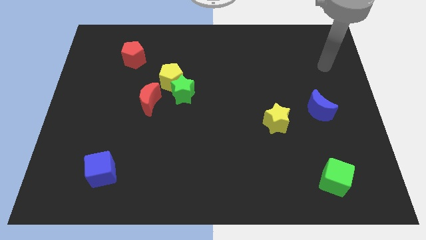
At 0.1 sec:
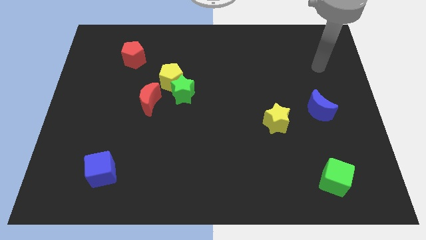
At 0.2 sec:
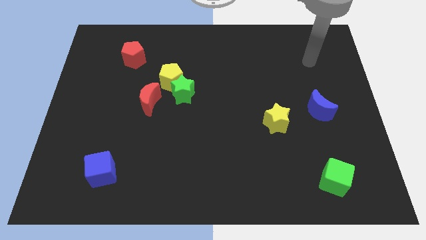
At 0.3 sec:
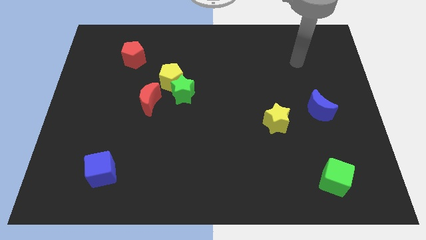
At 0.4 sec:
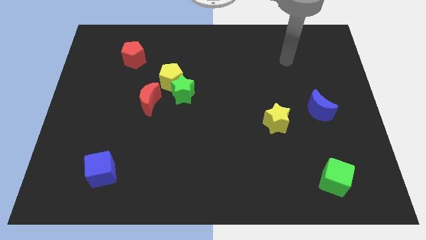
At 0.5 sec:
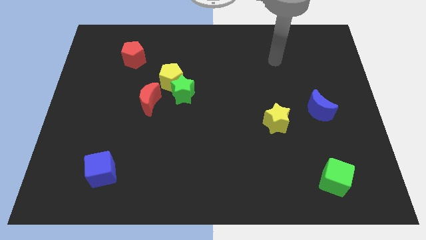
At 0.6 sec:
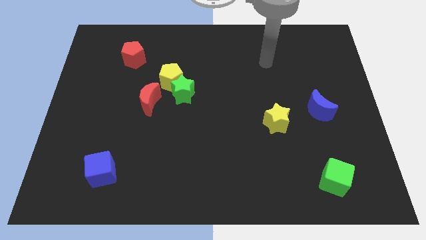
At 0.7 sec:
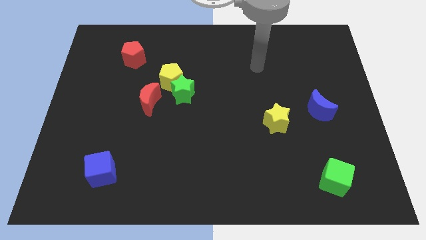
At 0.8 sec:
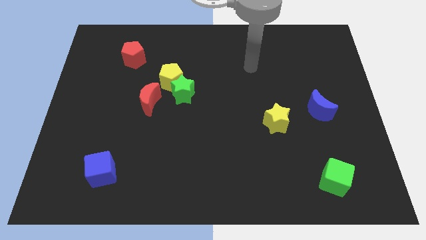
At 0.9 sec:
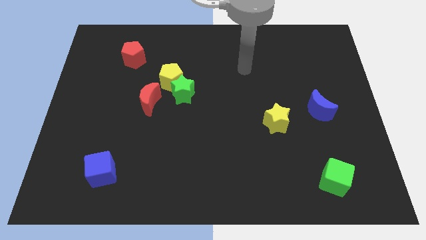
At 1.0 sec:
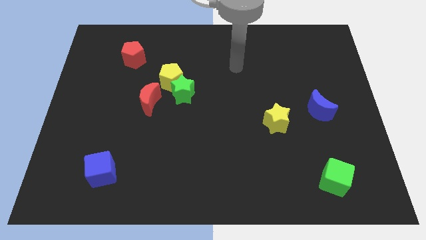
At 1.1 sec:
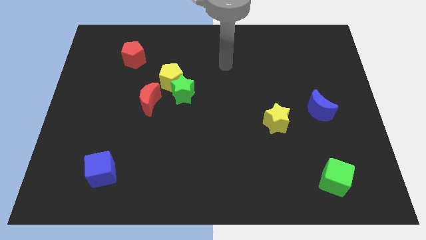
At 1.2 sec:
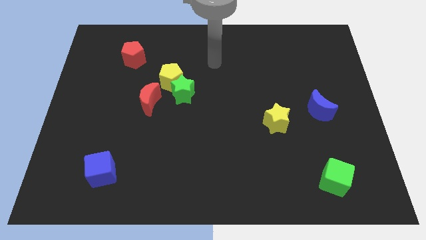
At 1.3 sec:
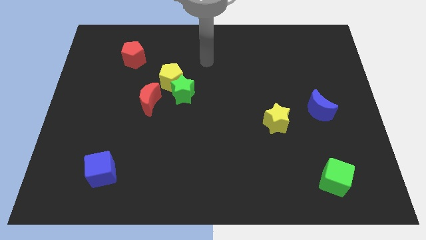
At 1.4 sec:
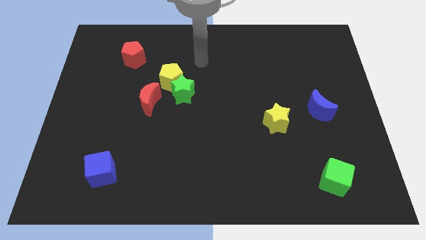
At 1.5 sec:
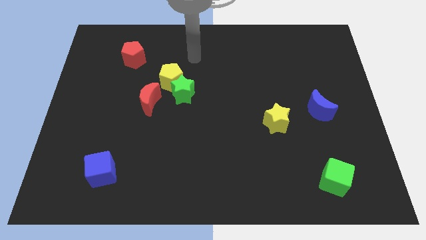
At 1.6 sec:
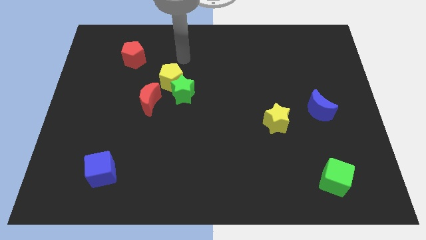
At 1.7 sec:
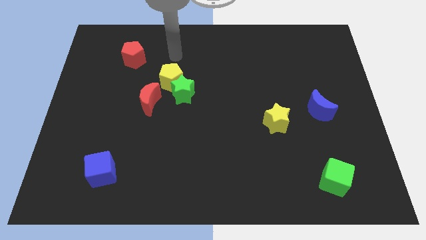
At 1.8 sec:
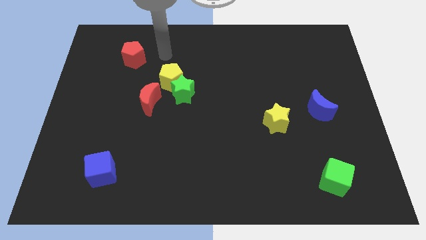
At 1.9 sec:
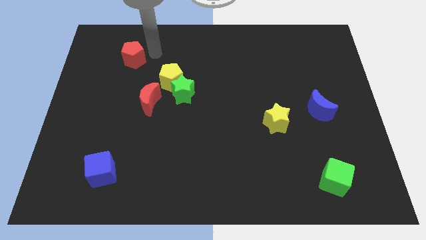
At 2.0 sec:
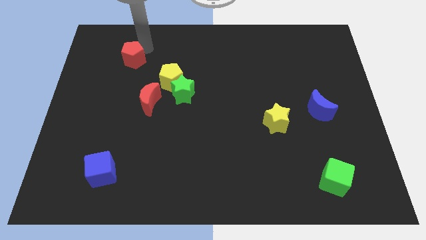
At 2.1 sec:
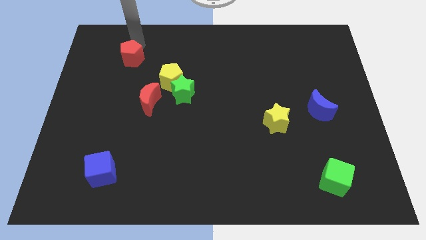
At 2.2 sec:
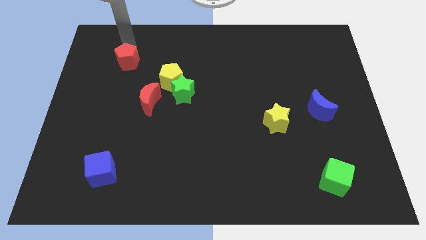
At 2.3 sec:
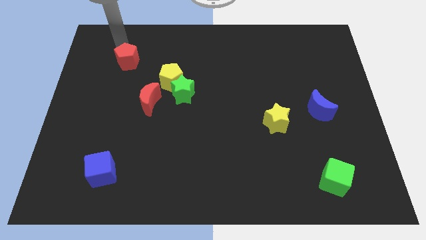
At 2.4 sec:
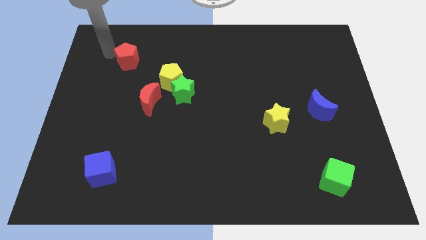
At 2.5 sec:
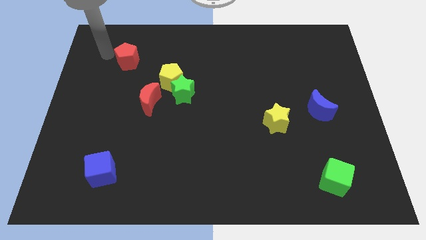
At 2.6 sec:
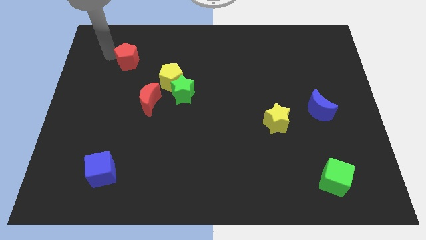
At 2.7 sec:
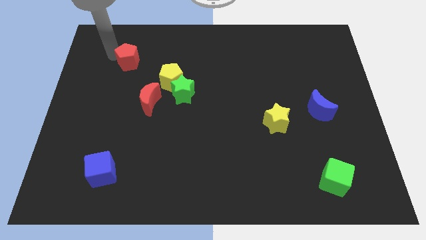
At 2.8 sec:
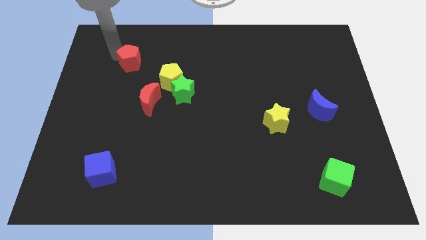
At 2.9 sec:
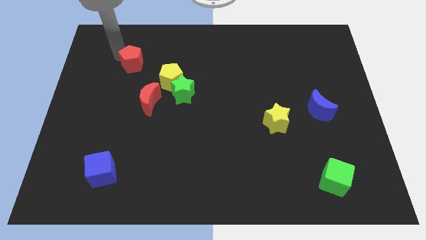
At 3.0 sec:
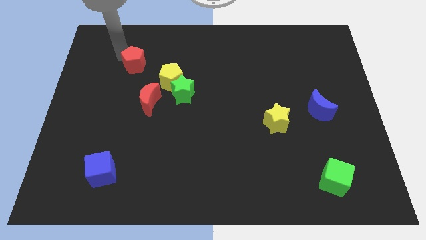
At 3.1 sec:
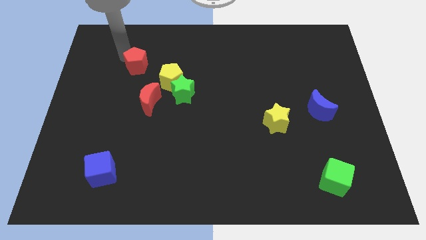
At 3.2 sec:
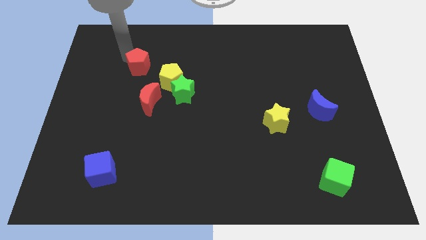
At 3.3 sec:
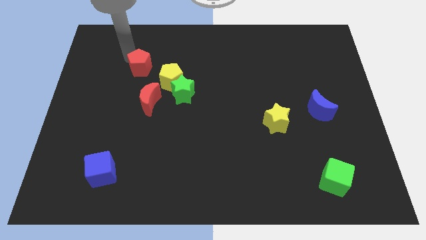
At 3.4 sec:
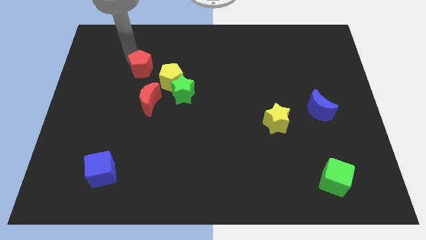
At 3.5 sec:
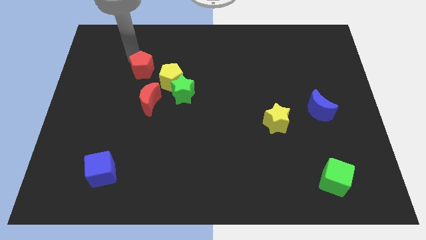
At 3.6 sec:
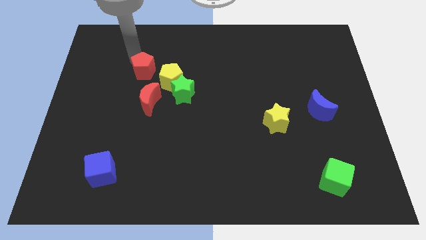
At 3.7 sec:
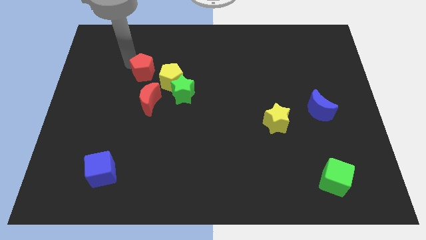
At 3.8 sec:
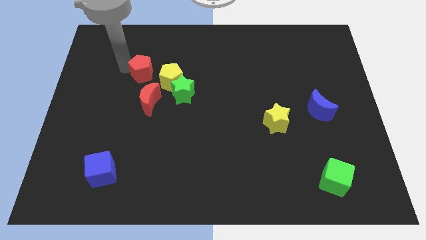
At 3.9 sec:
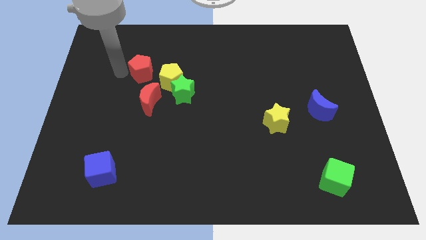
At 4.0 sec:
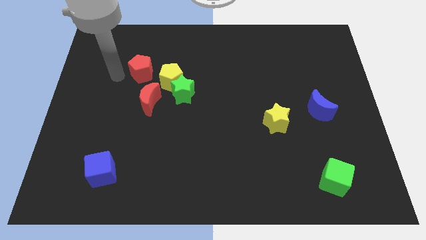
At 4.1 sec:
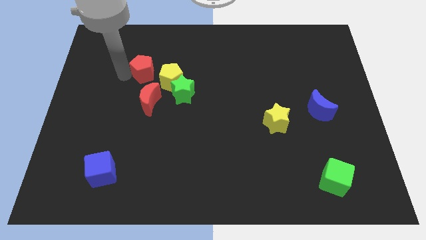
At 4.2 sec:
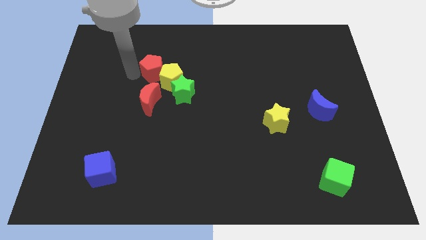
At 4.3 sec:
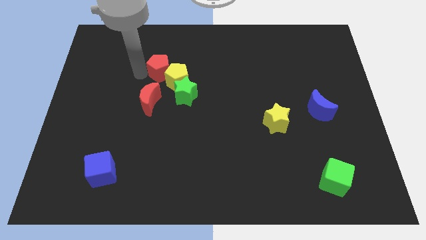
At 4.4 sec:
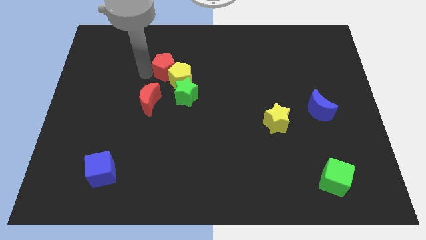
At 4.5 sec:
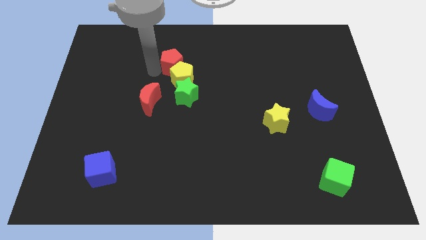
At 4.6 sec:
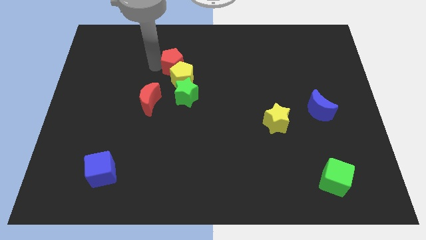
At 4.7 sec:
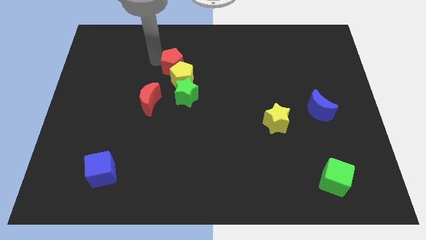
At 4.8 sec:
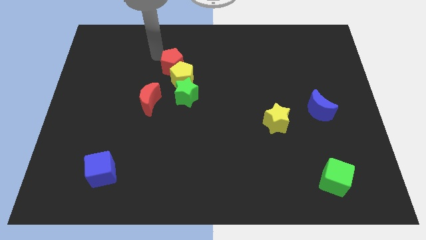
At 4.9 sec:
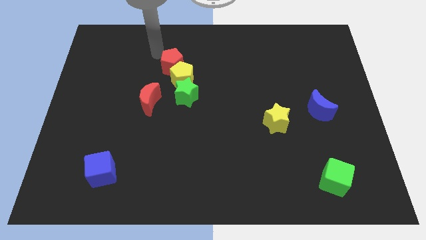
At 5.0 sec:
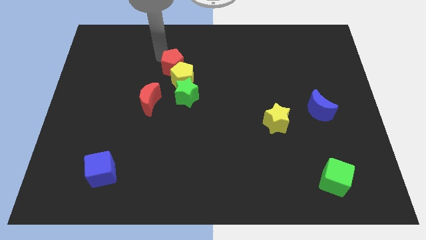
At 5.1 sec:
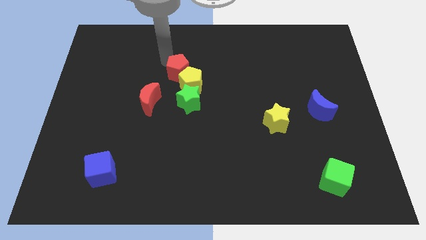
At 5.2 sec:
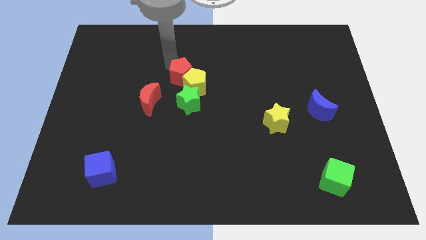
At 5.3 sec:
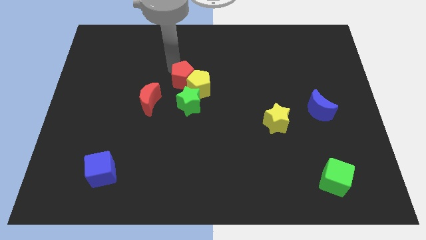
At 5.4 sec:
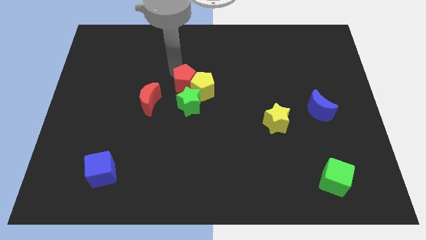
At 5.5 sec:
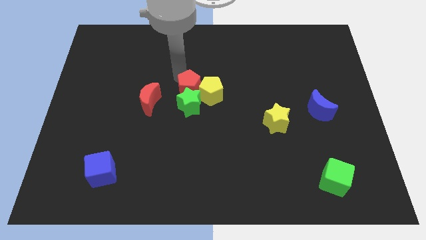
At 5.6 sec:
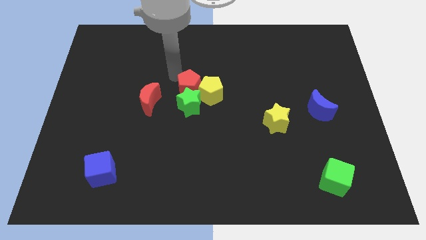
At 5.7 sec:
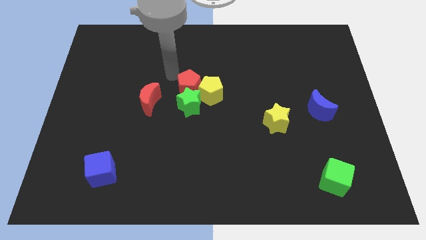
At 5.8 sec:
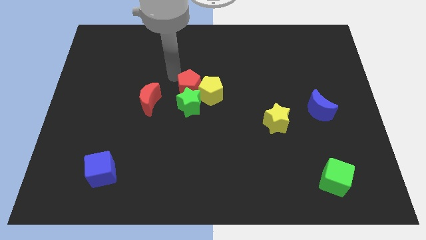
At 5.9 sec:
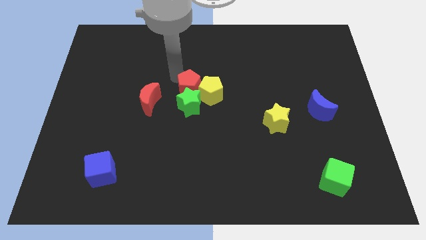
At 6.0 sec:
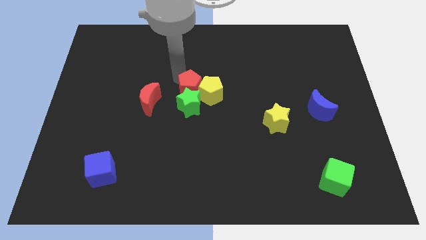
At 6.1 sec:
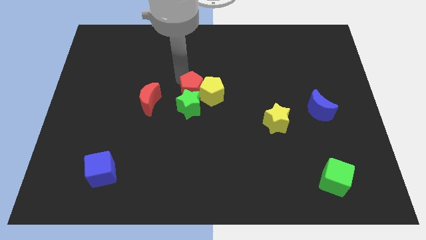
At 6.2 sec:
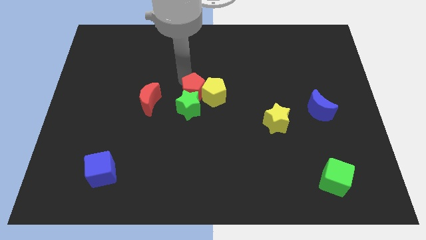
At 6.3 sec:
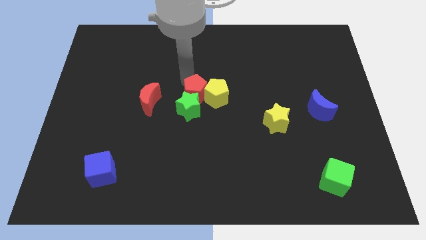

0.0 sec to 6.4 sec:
move the red pentagon down and then right

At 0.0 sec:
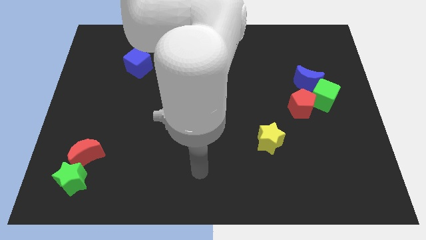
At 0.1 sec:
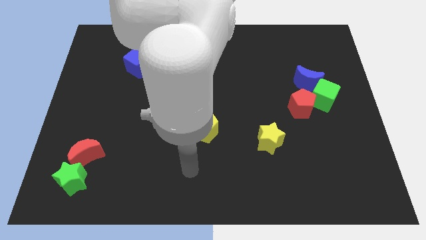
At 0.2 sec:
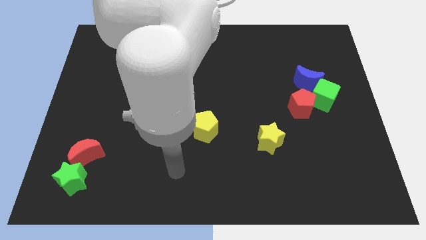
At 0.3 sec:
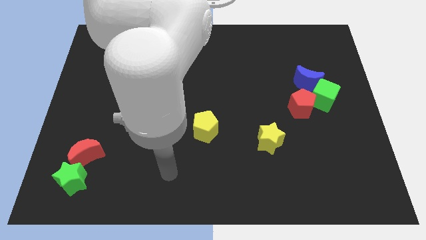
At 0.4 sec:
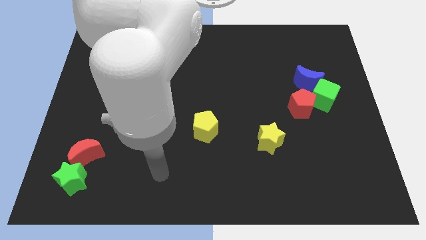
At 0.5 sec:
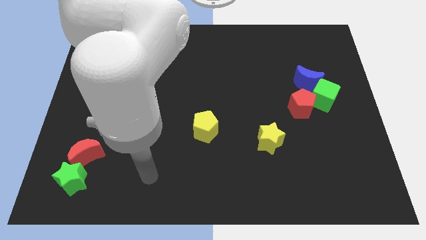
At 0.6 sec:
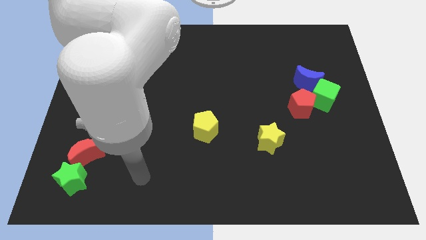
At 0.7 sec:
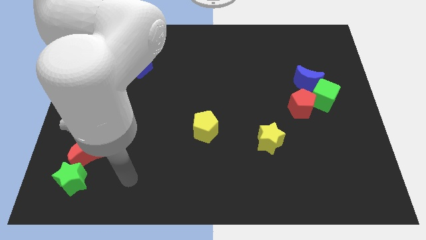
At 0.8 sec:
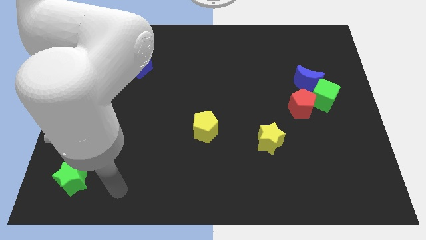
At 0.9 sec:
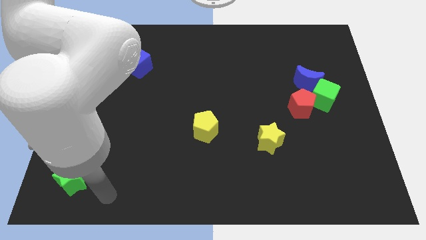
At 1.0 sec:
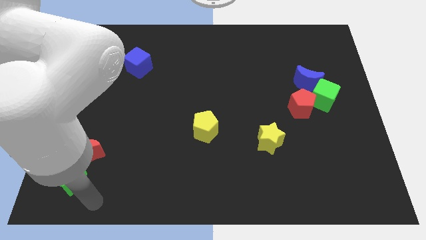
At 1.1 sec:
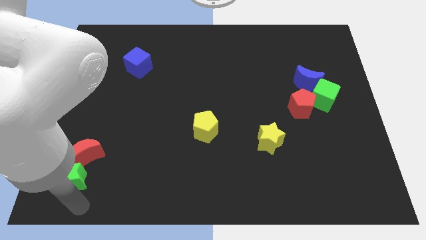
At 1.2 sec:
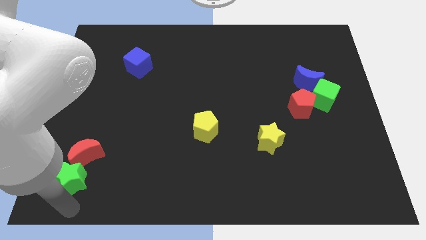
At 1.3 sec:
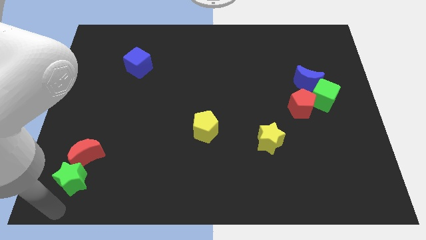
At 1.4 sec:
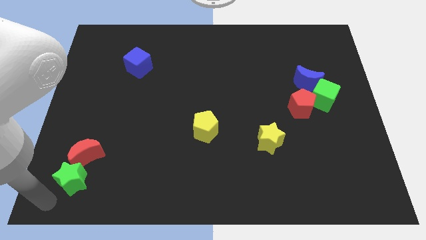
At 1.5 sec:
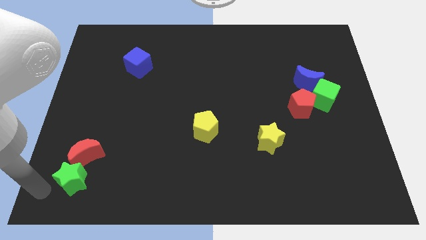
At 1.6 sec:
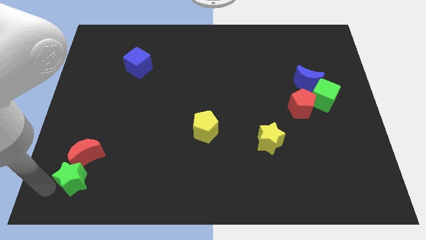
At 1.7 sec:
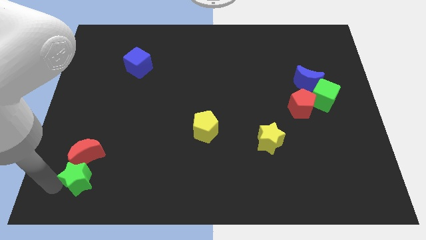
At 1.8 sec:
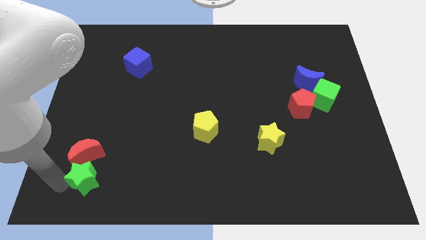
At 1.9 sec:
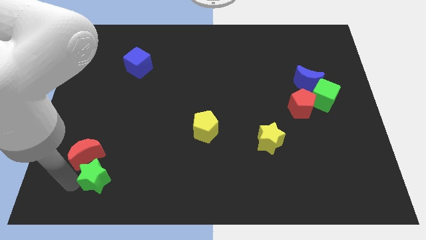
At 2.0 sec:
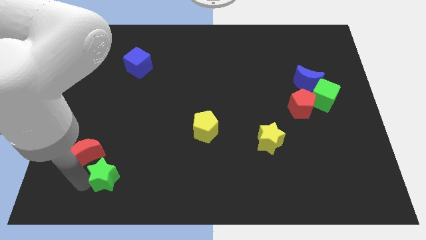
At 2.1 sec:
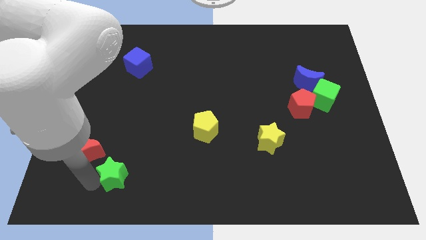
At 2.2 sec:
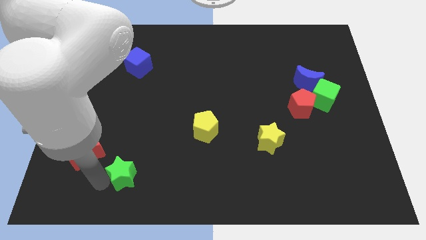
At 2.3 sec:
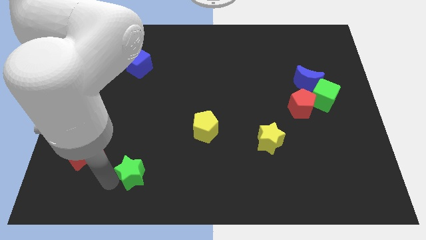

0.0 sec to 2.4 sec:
push the green star somewhat diagonally upwards and to the right
